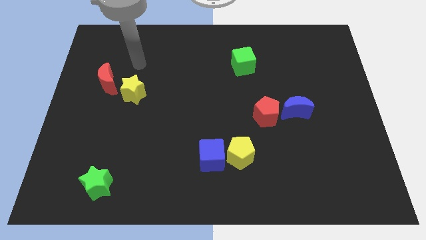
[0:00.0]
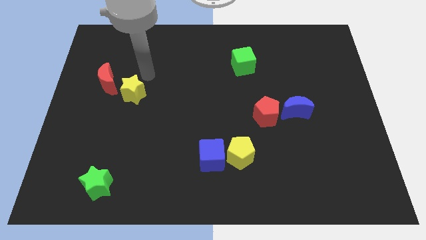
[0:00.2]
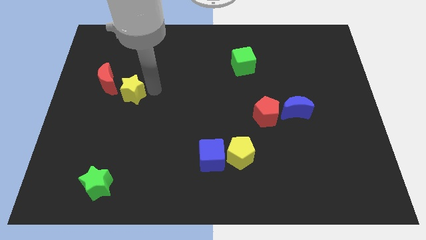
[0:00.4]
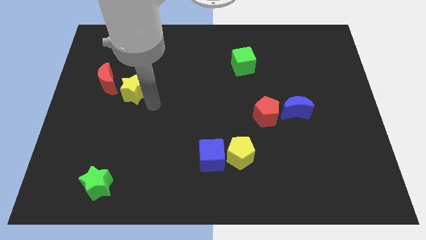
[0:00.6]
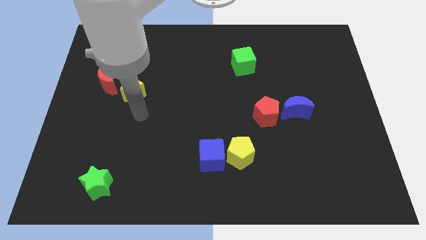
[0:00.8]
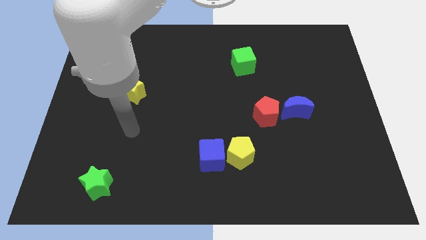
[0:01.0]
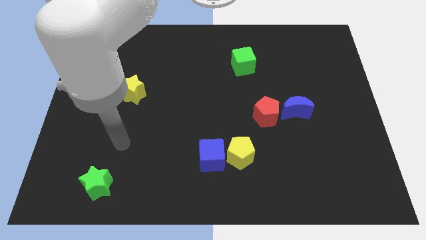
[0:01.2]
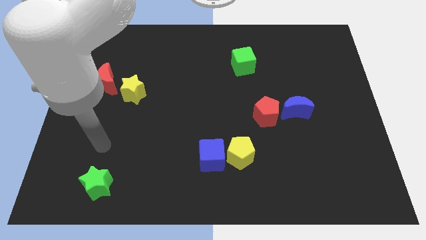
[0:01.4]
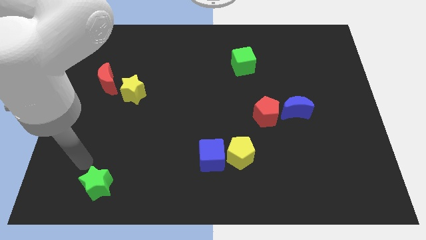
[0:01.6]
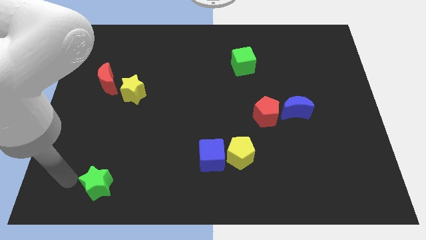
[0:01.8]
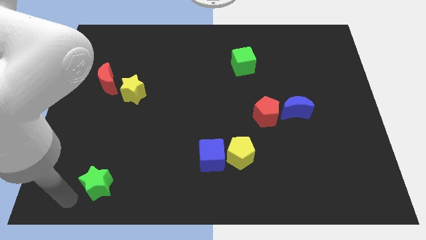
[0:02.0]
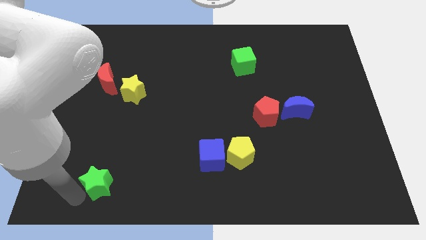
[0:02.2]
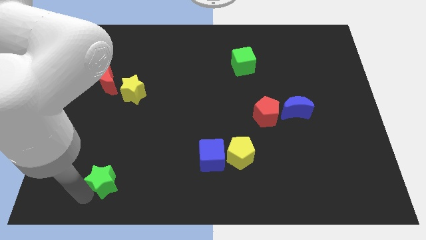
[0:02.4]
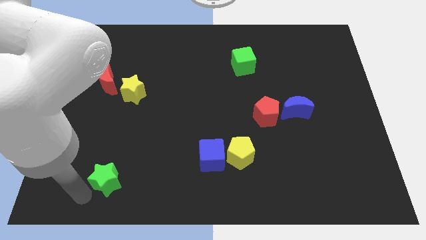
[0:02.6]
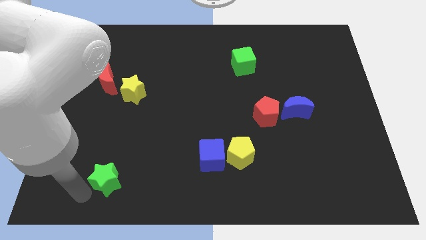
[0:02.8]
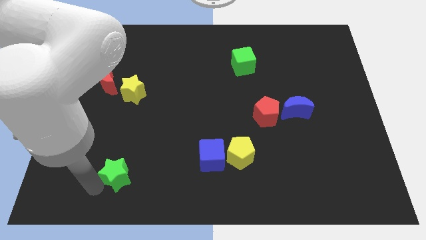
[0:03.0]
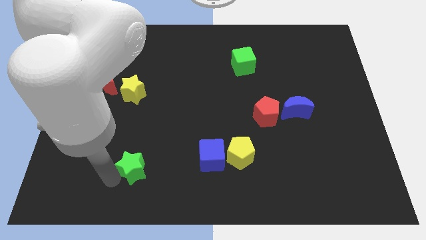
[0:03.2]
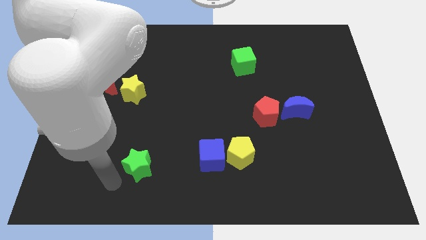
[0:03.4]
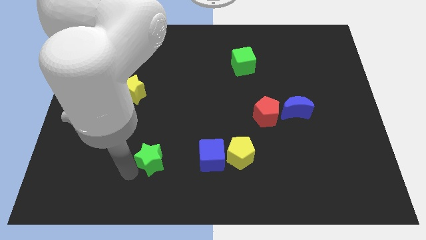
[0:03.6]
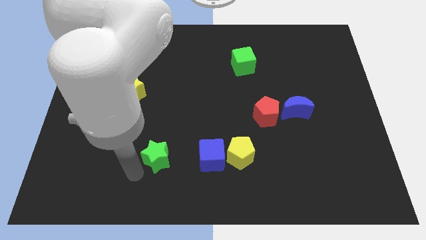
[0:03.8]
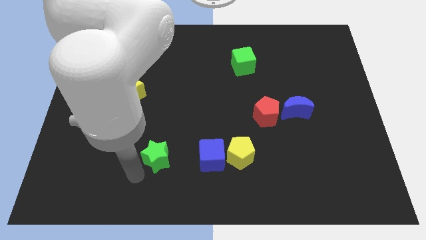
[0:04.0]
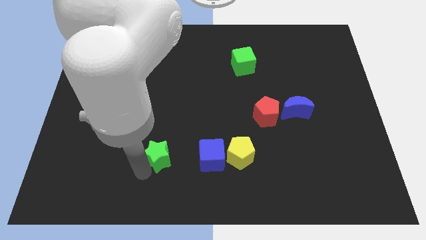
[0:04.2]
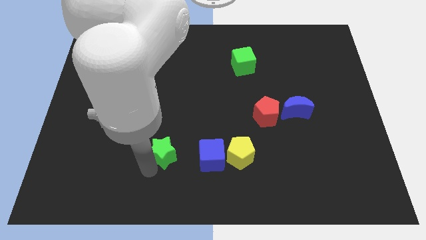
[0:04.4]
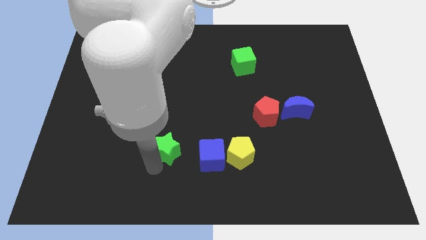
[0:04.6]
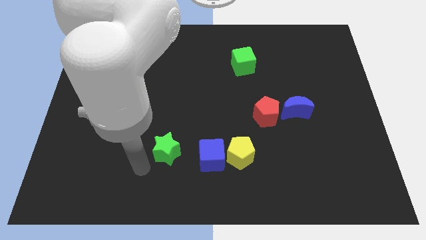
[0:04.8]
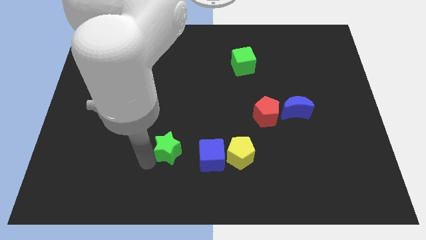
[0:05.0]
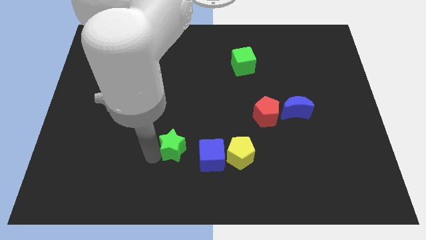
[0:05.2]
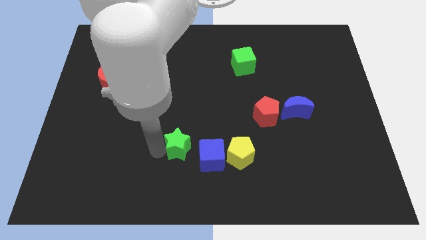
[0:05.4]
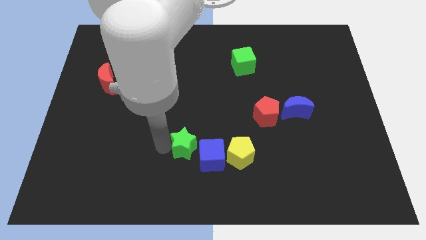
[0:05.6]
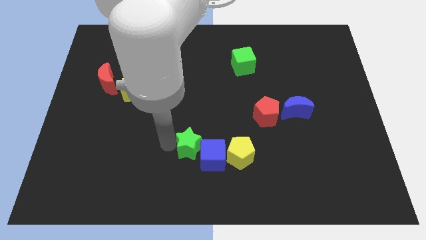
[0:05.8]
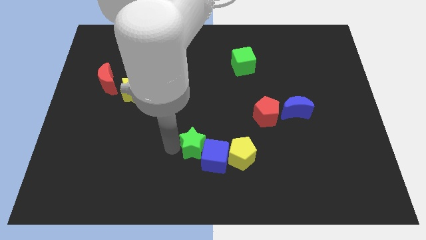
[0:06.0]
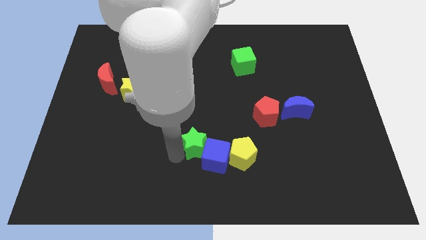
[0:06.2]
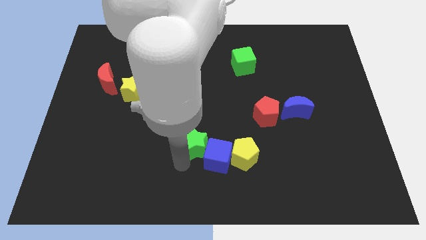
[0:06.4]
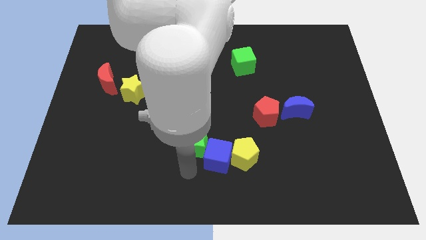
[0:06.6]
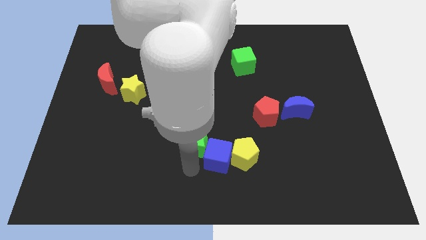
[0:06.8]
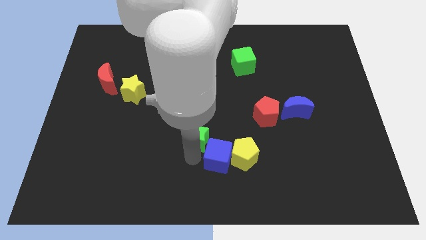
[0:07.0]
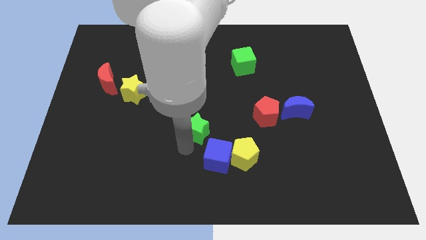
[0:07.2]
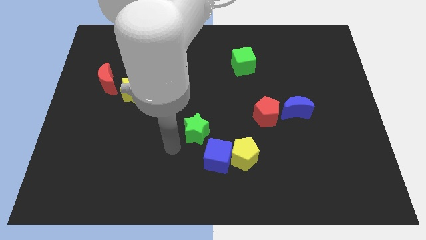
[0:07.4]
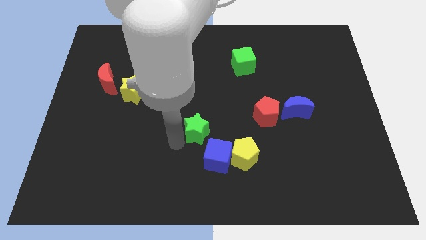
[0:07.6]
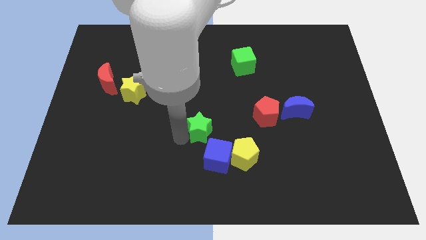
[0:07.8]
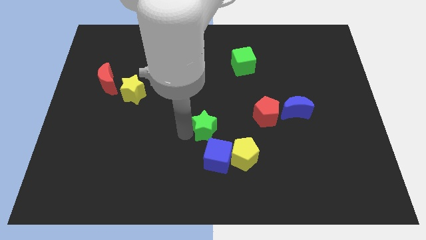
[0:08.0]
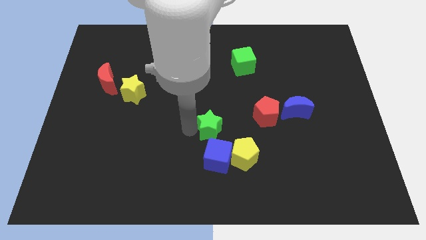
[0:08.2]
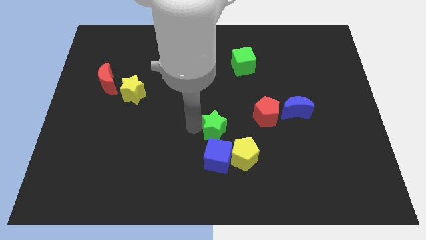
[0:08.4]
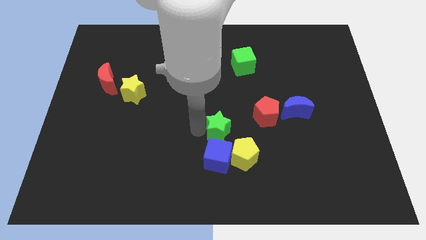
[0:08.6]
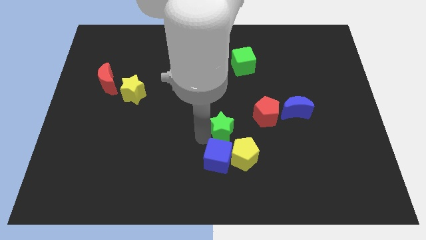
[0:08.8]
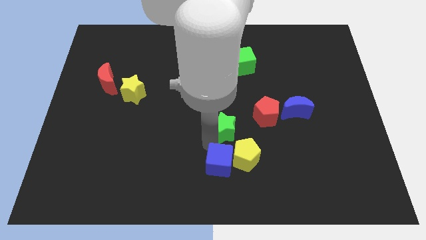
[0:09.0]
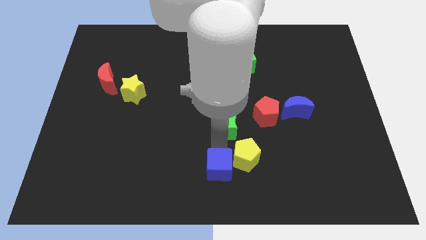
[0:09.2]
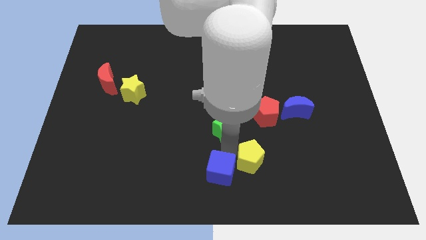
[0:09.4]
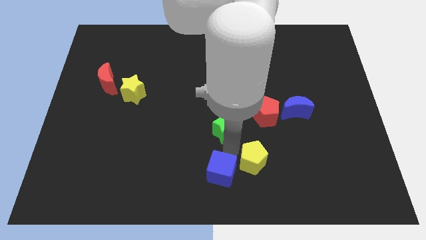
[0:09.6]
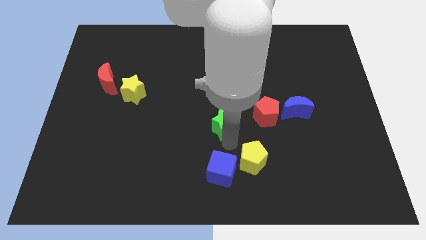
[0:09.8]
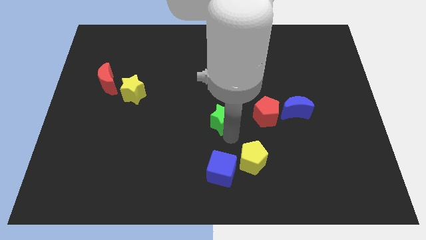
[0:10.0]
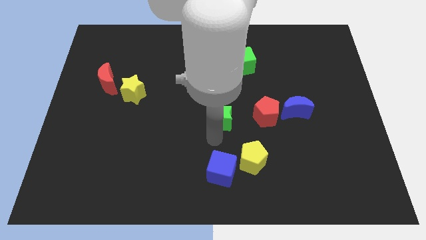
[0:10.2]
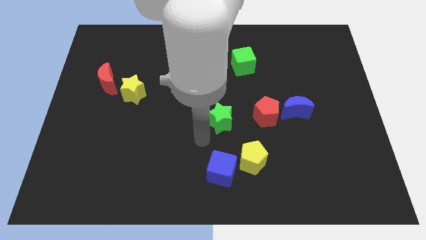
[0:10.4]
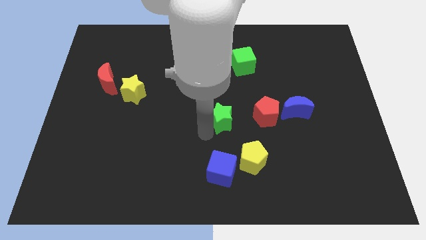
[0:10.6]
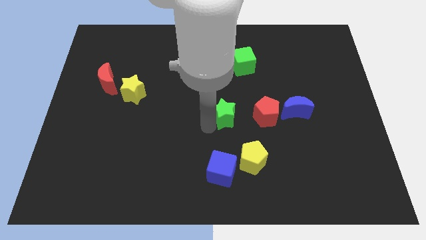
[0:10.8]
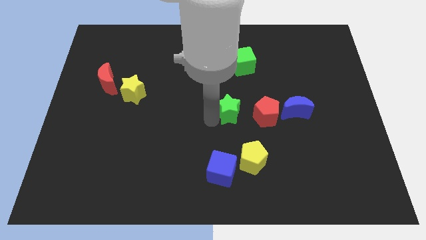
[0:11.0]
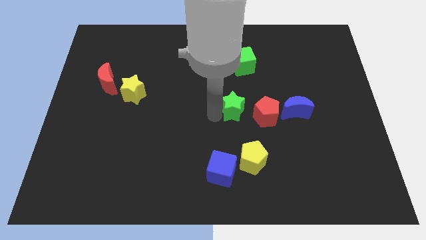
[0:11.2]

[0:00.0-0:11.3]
put the green star to the bottom of the green cube

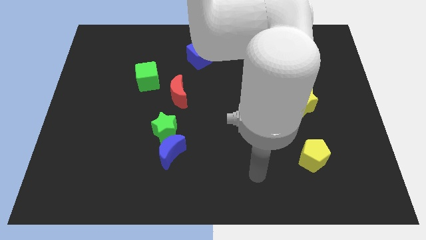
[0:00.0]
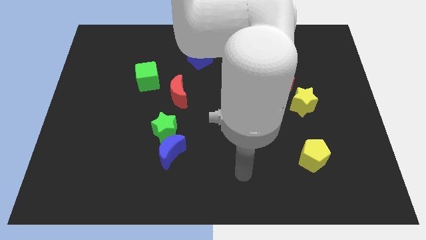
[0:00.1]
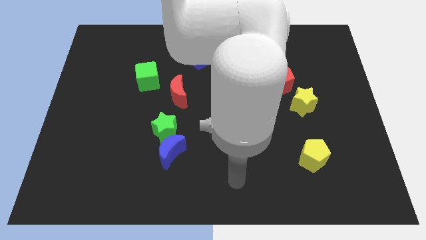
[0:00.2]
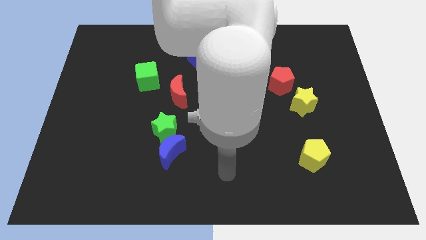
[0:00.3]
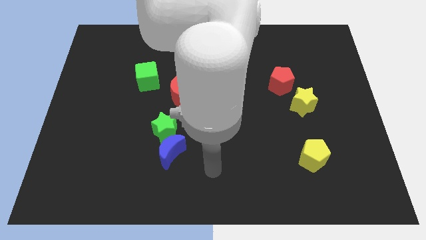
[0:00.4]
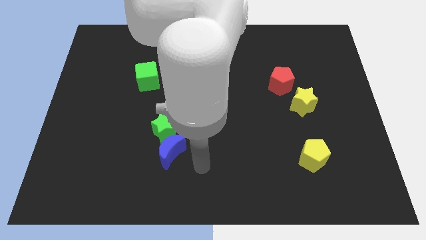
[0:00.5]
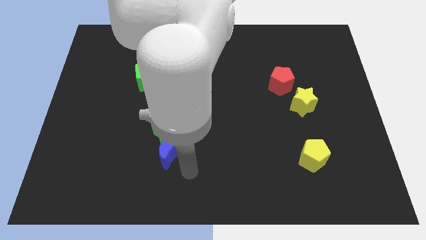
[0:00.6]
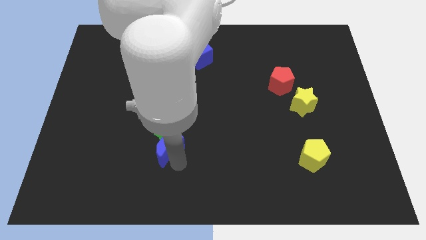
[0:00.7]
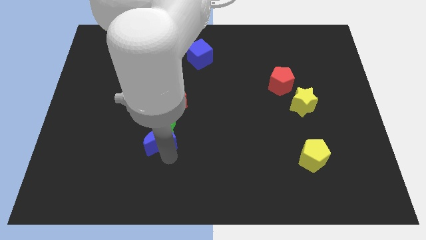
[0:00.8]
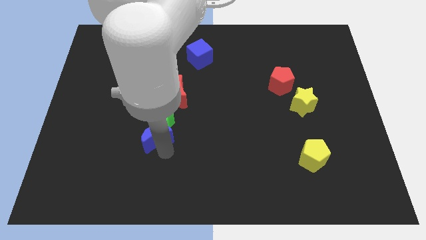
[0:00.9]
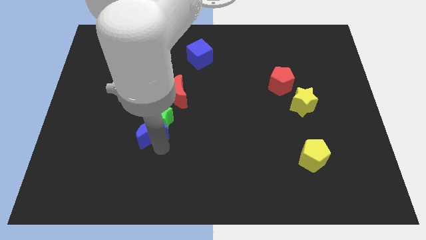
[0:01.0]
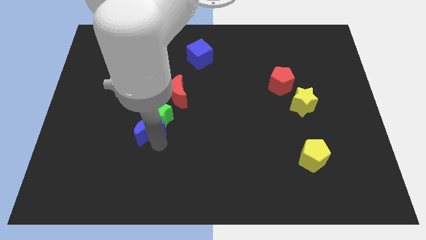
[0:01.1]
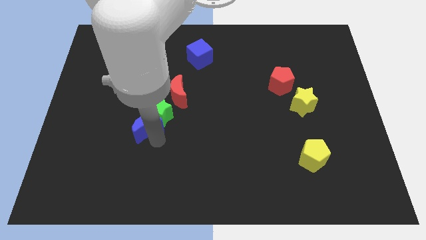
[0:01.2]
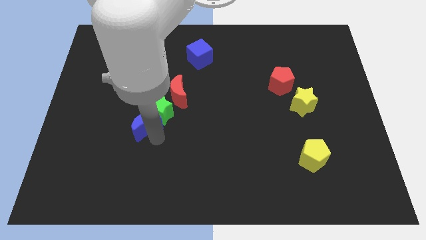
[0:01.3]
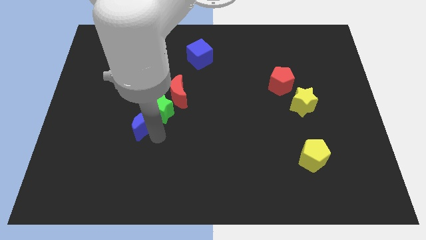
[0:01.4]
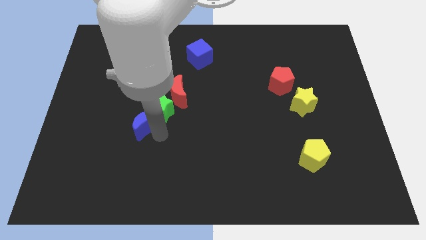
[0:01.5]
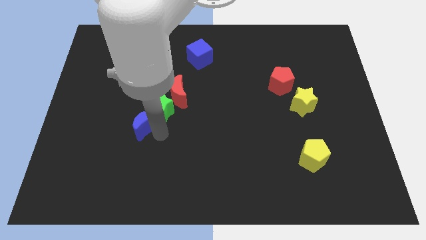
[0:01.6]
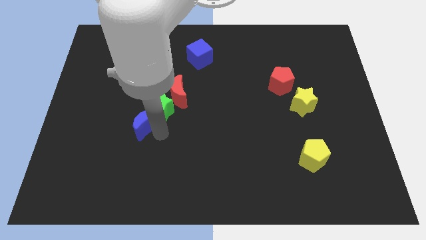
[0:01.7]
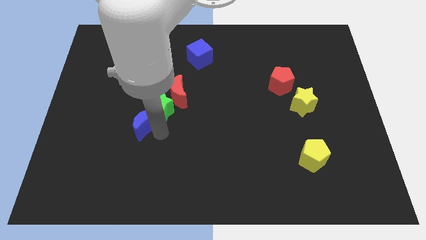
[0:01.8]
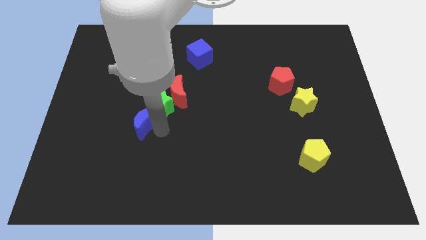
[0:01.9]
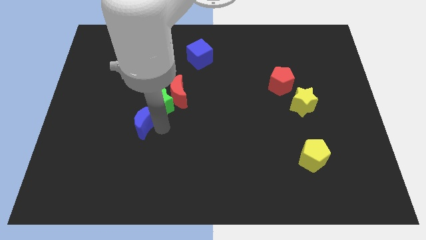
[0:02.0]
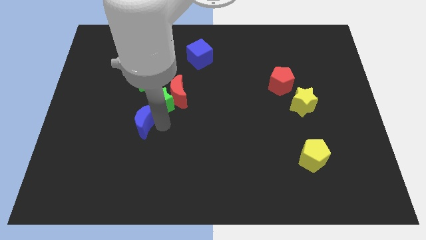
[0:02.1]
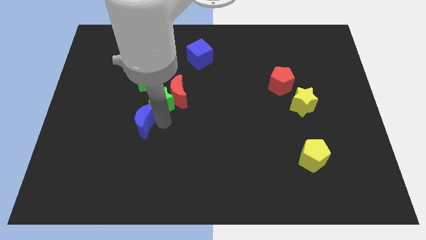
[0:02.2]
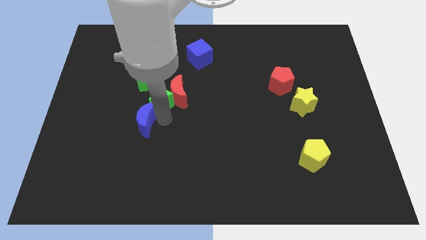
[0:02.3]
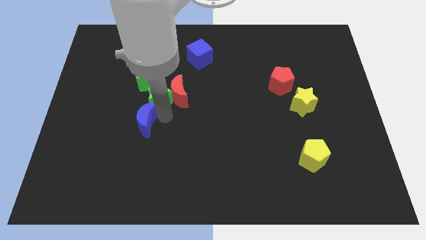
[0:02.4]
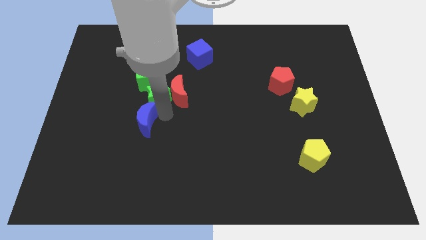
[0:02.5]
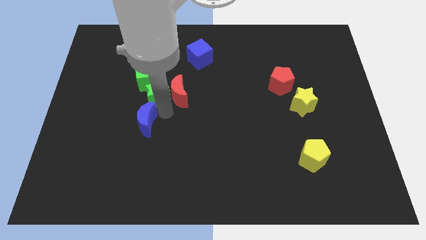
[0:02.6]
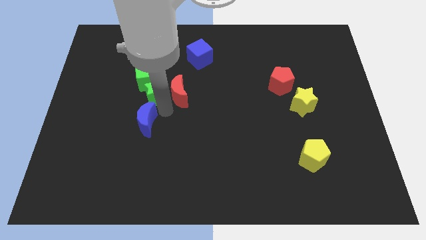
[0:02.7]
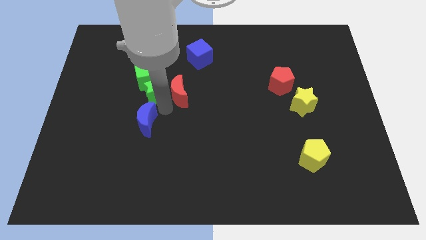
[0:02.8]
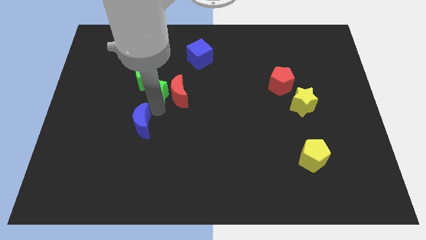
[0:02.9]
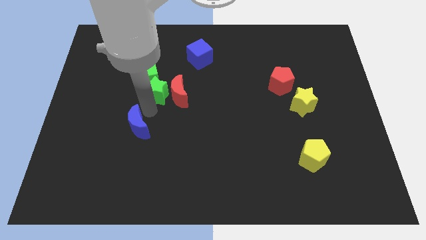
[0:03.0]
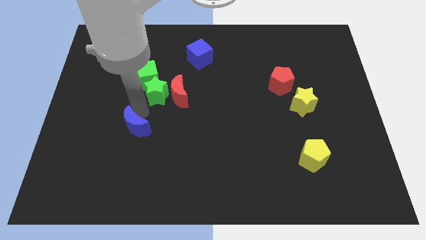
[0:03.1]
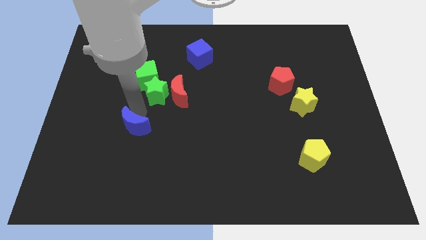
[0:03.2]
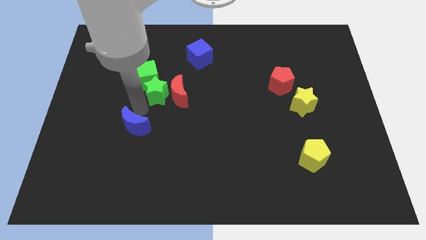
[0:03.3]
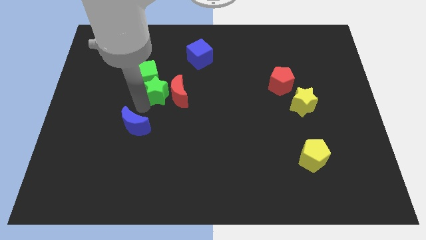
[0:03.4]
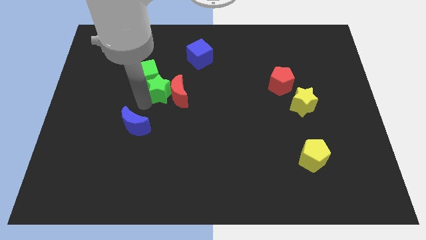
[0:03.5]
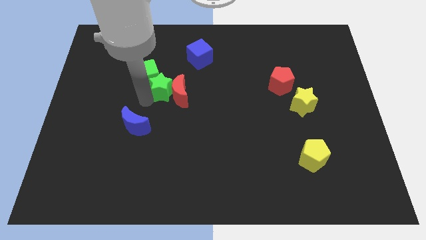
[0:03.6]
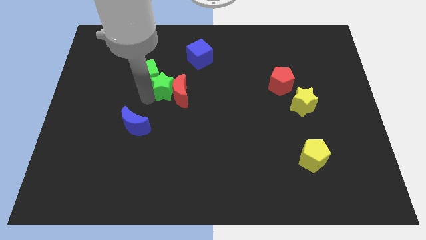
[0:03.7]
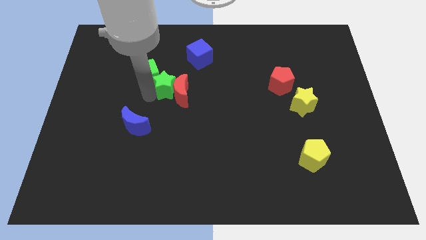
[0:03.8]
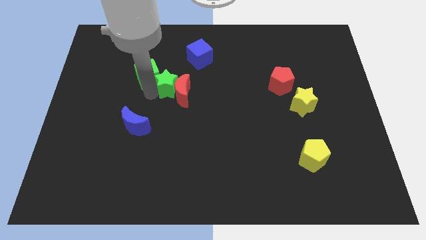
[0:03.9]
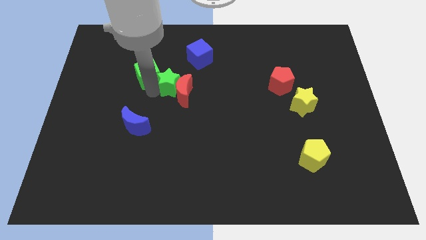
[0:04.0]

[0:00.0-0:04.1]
slide the green star to the bottom left side of the blue cube
